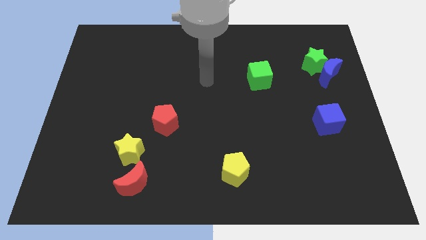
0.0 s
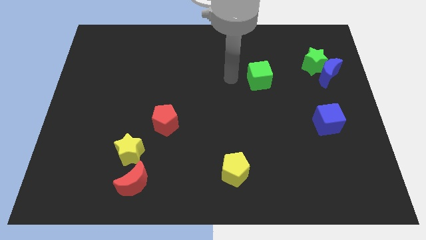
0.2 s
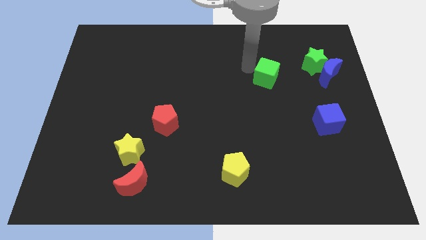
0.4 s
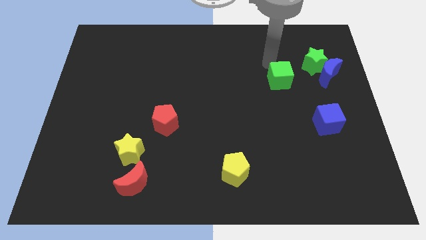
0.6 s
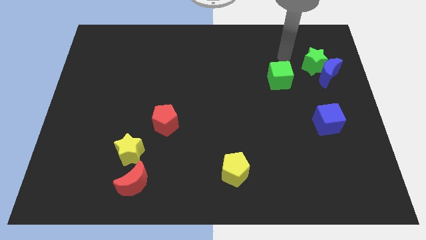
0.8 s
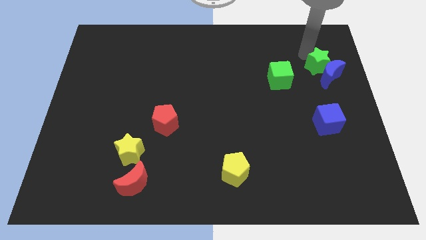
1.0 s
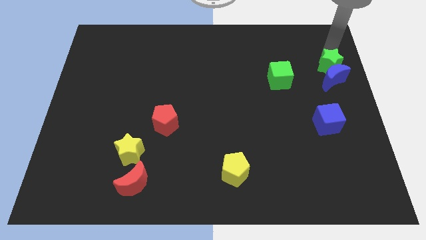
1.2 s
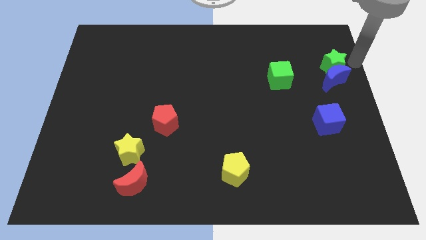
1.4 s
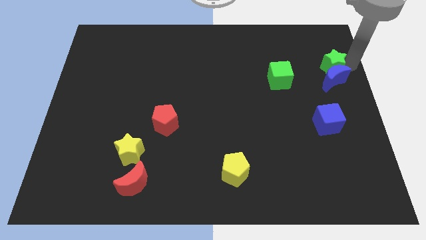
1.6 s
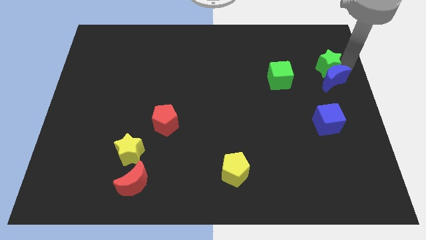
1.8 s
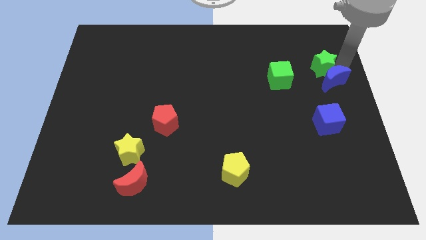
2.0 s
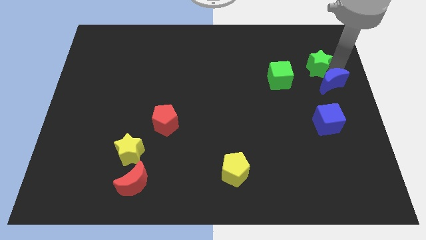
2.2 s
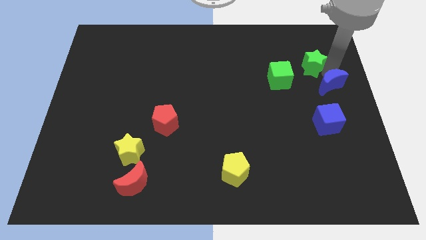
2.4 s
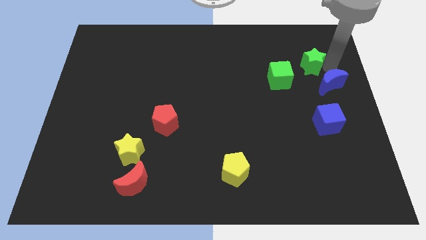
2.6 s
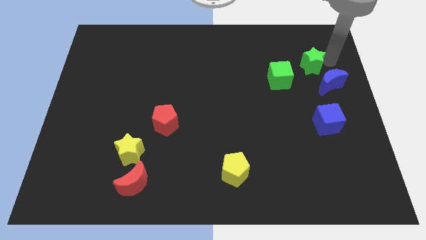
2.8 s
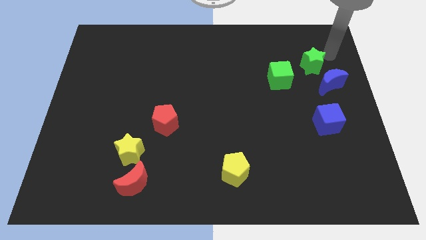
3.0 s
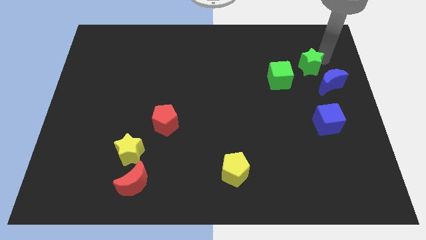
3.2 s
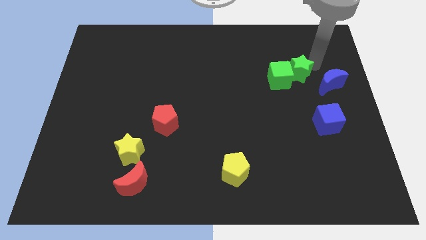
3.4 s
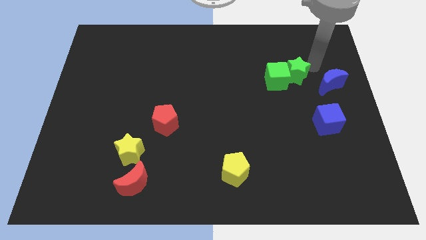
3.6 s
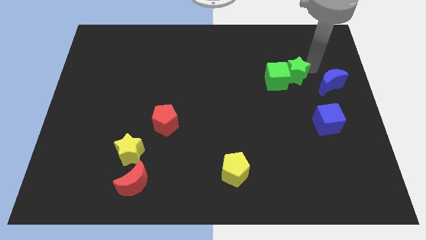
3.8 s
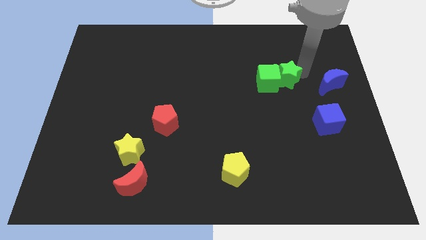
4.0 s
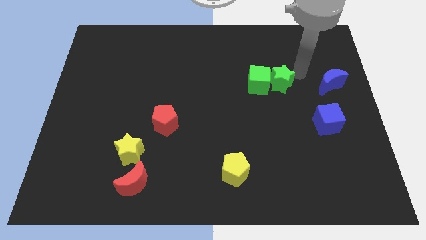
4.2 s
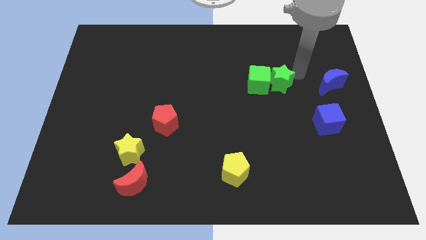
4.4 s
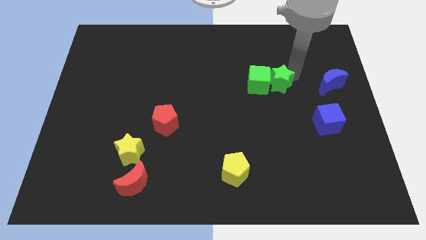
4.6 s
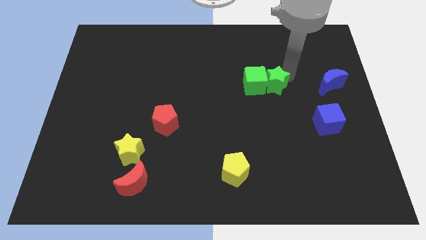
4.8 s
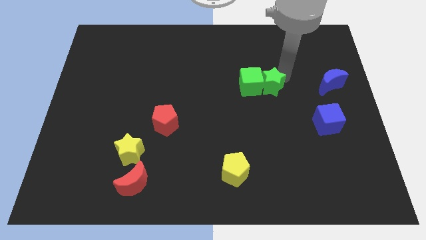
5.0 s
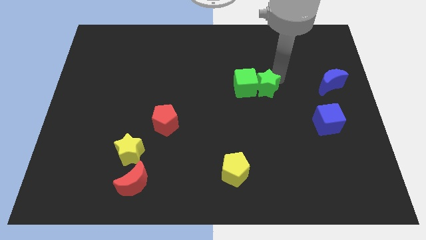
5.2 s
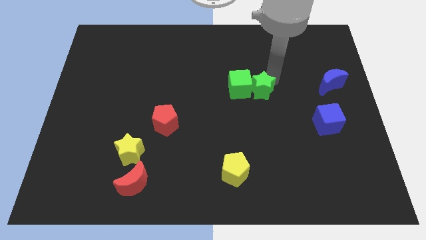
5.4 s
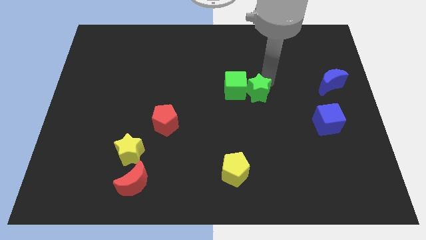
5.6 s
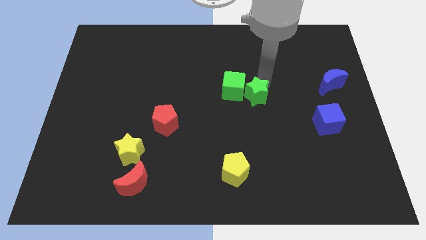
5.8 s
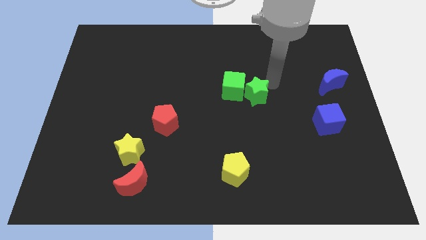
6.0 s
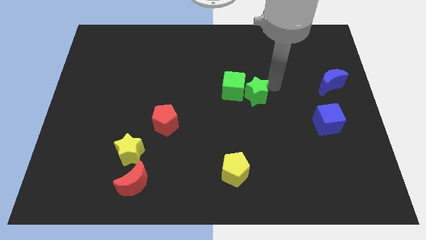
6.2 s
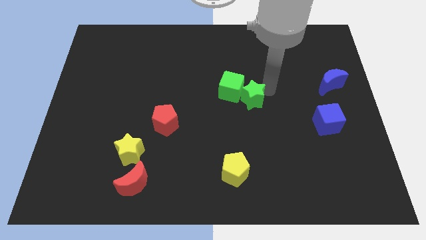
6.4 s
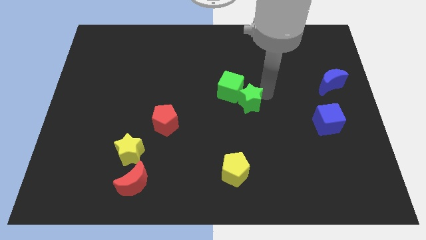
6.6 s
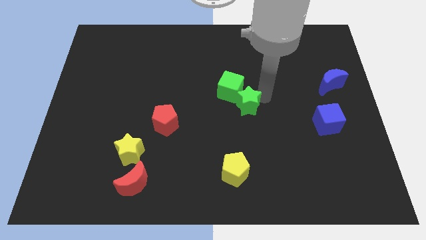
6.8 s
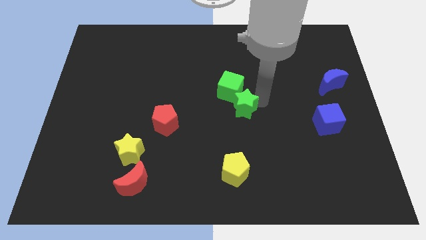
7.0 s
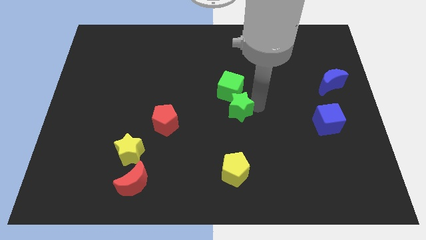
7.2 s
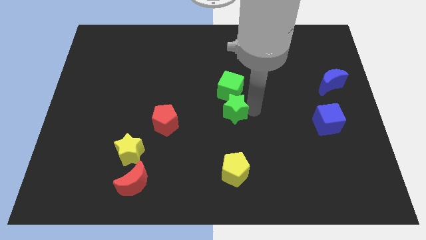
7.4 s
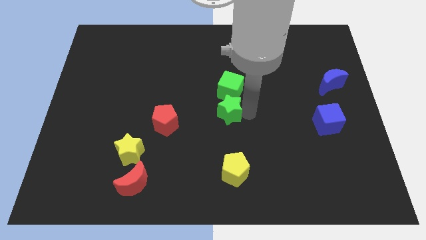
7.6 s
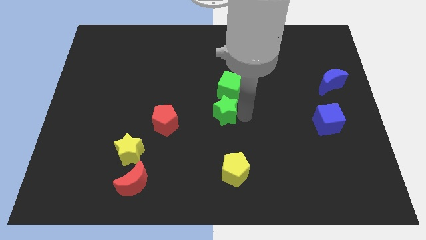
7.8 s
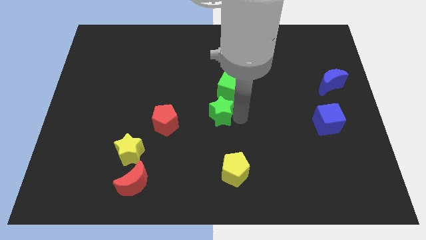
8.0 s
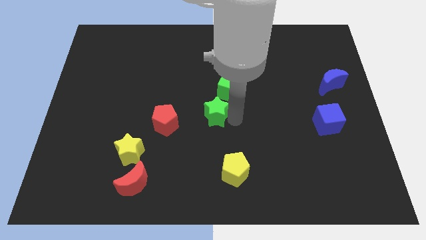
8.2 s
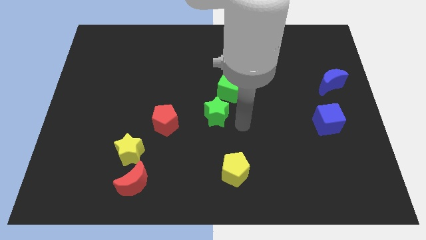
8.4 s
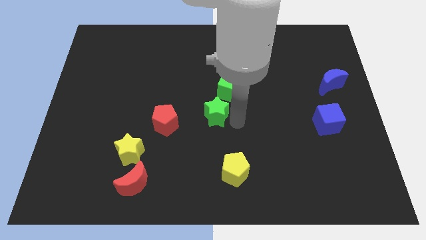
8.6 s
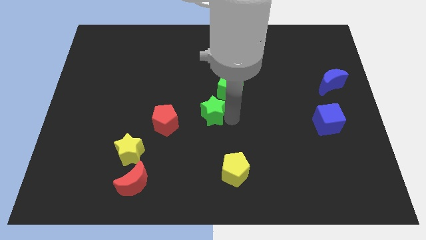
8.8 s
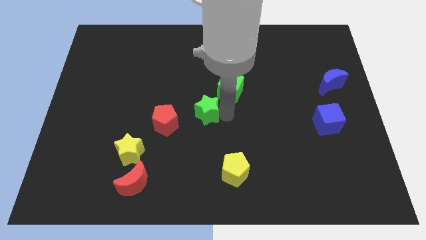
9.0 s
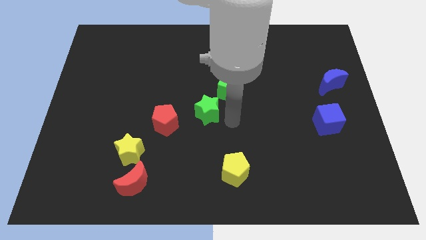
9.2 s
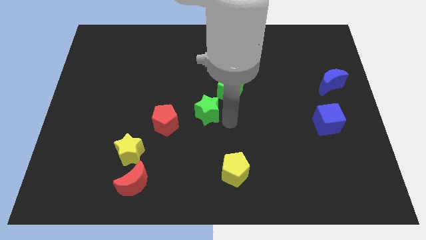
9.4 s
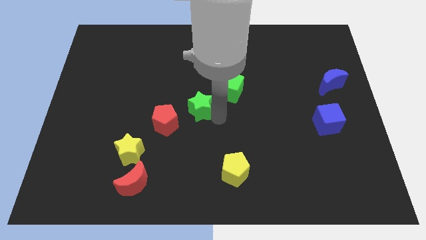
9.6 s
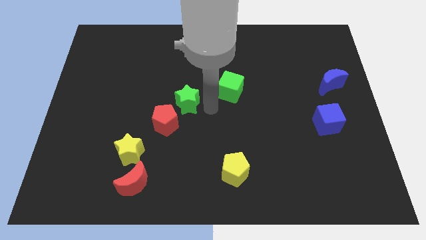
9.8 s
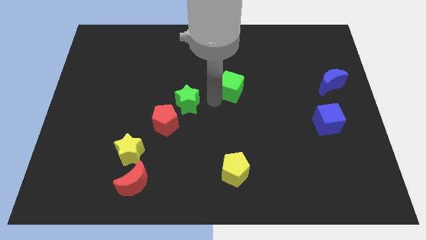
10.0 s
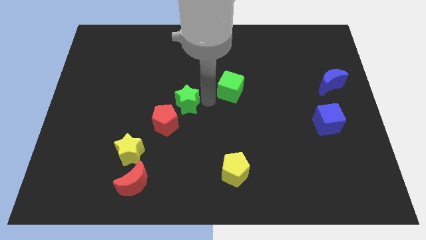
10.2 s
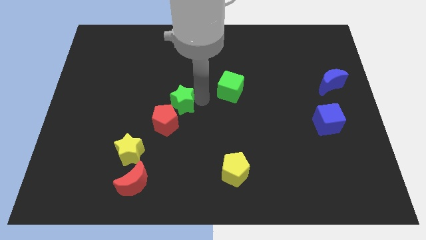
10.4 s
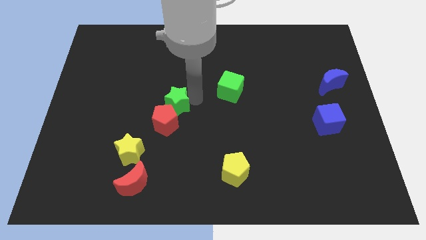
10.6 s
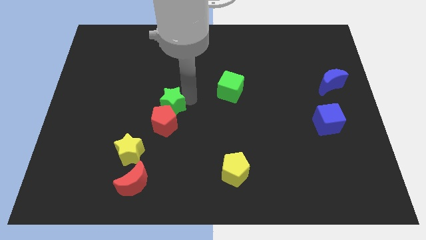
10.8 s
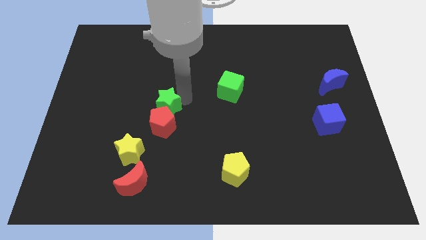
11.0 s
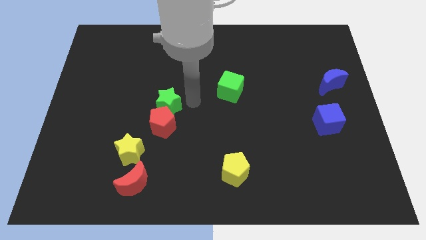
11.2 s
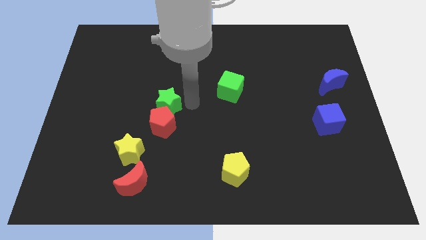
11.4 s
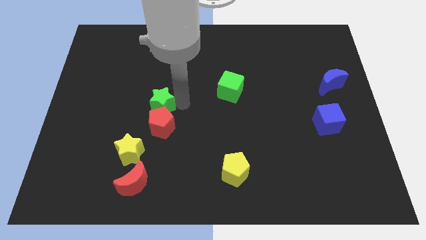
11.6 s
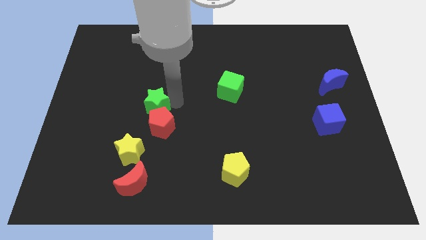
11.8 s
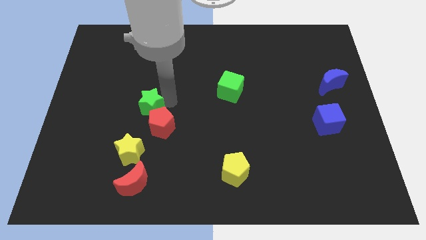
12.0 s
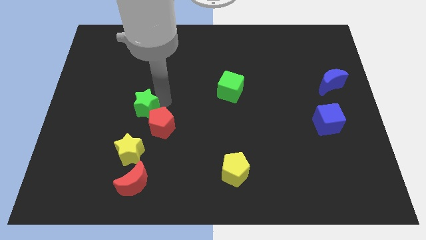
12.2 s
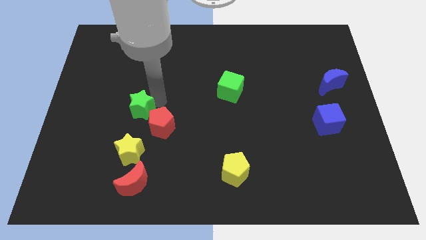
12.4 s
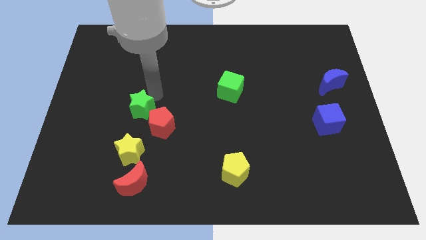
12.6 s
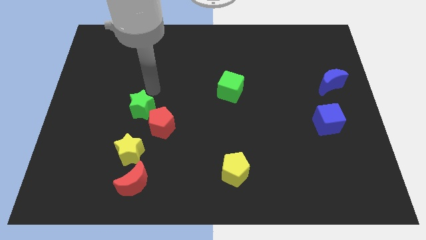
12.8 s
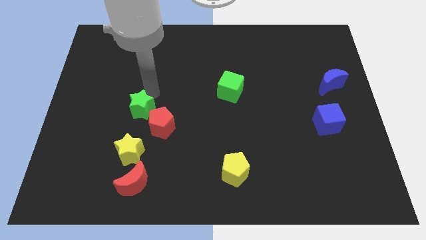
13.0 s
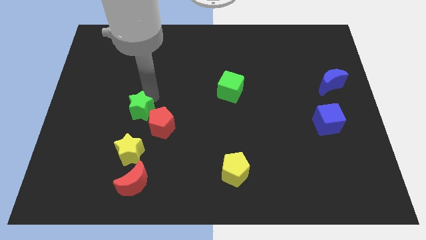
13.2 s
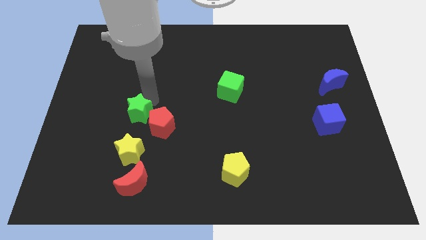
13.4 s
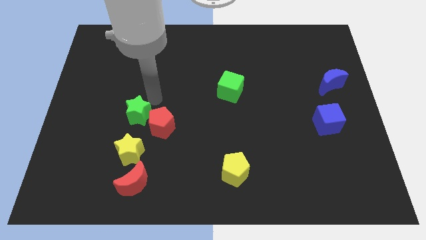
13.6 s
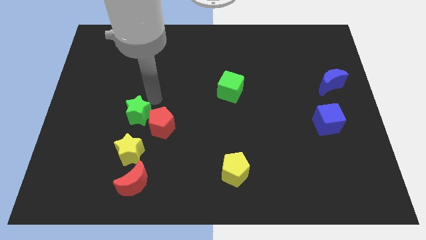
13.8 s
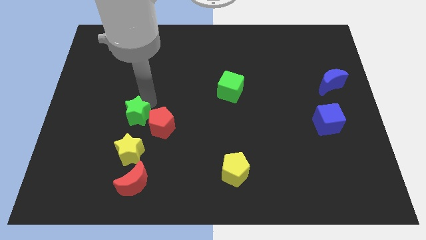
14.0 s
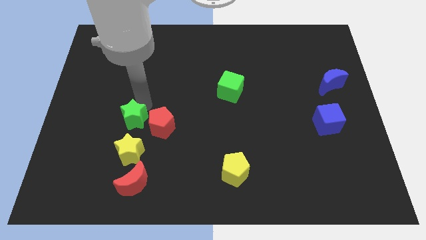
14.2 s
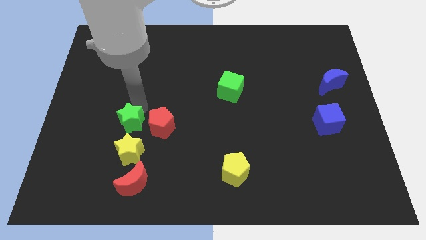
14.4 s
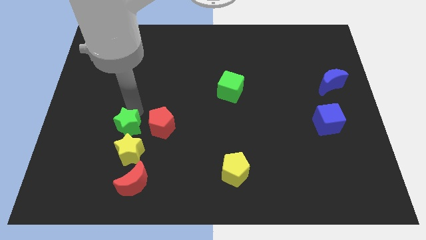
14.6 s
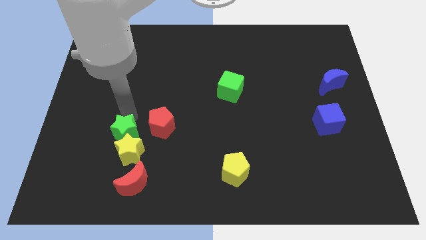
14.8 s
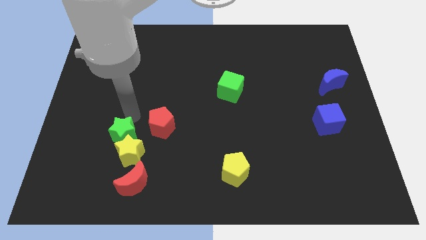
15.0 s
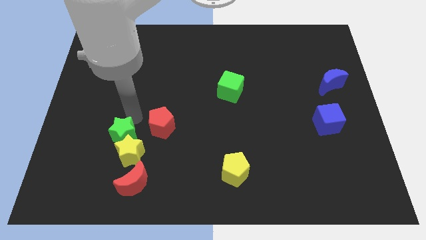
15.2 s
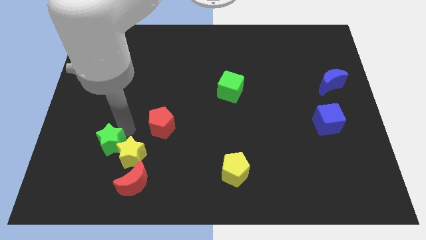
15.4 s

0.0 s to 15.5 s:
move the green star to the top left side of the red moon
